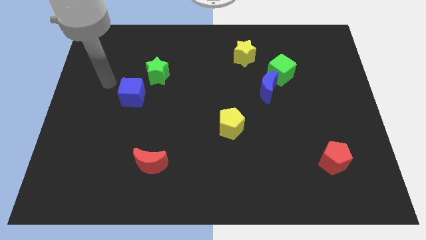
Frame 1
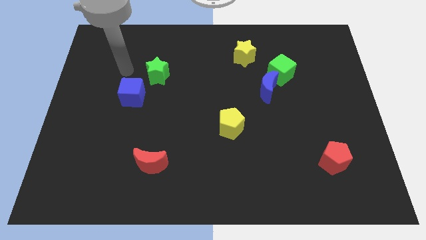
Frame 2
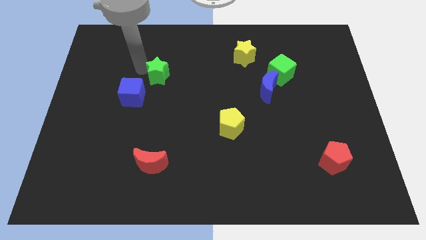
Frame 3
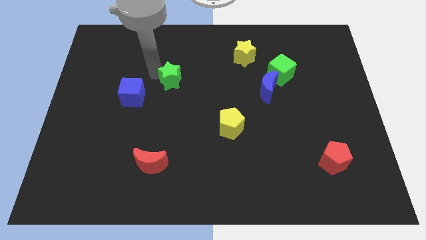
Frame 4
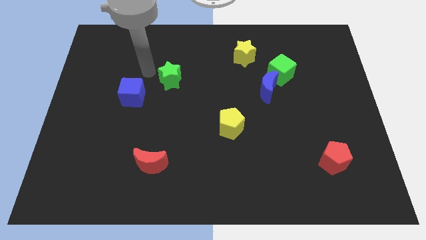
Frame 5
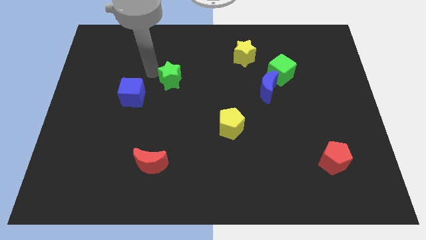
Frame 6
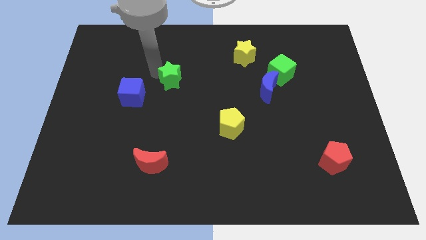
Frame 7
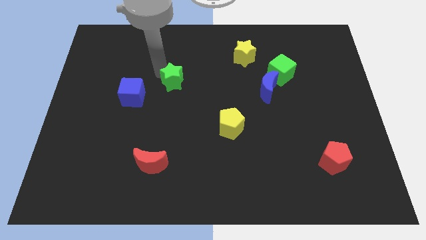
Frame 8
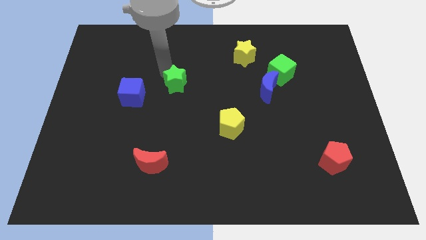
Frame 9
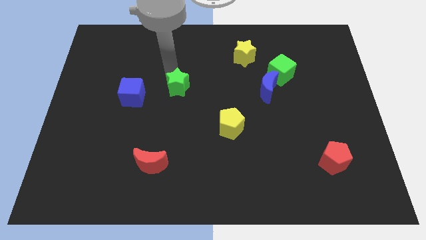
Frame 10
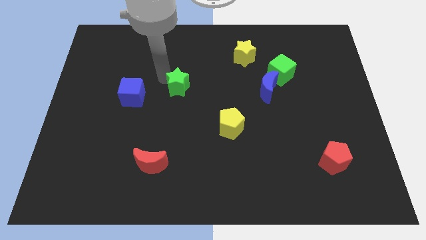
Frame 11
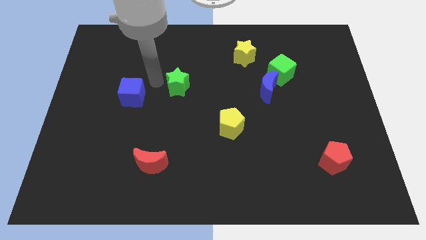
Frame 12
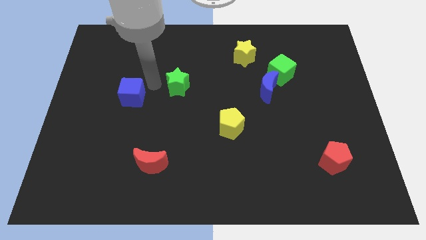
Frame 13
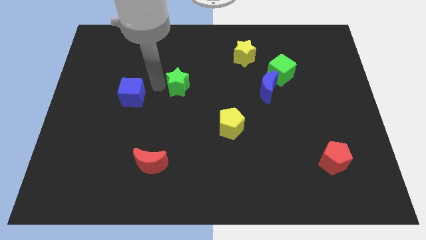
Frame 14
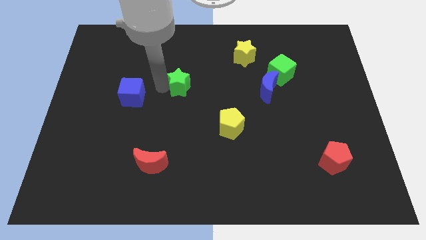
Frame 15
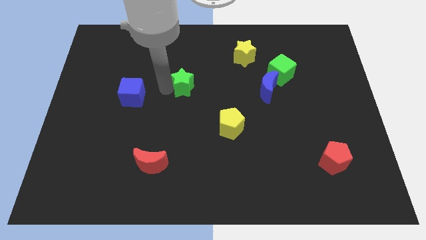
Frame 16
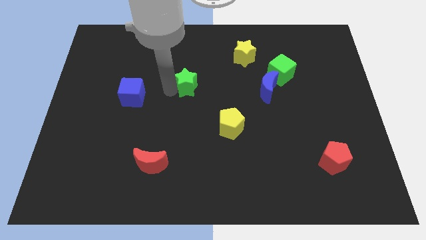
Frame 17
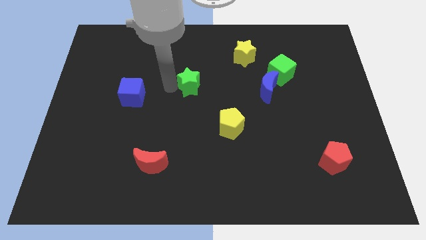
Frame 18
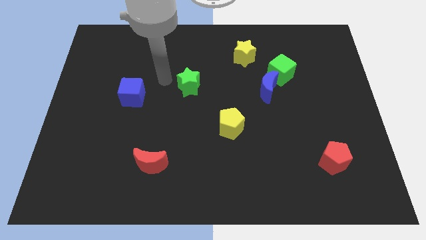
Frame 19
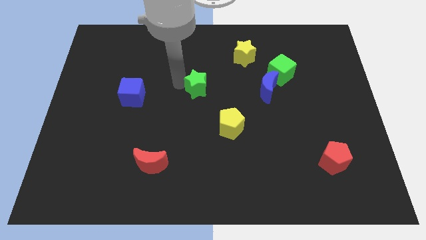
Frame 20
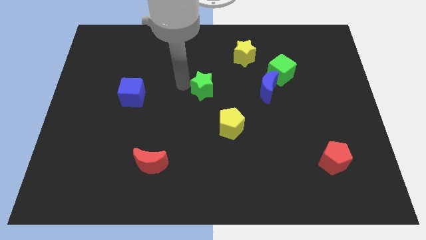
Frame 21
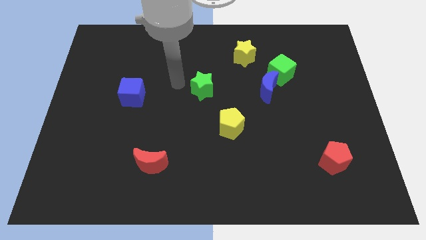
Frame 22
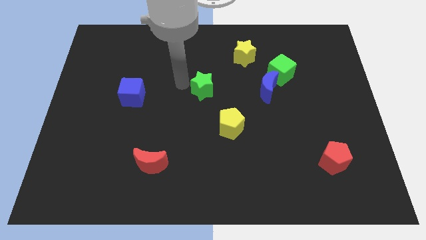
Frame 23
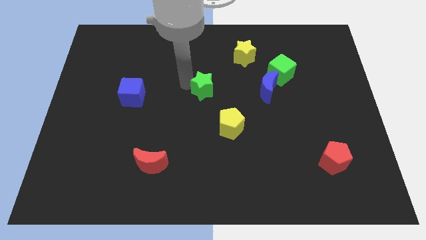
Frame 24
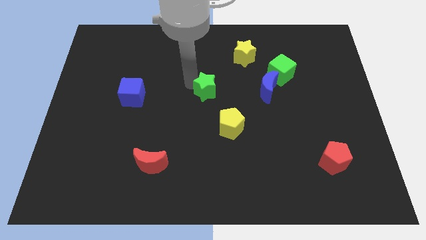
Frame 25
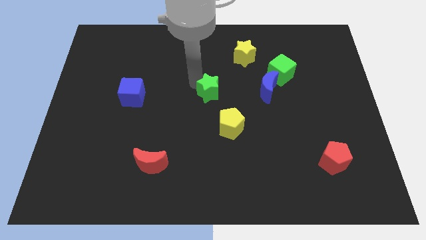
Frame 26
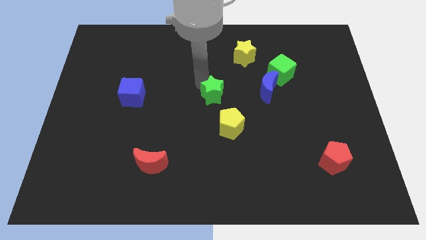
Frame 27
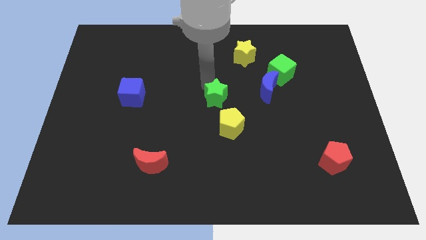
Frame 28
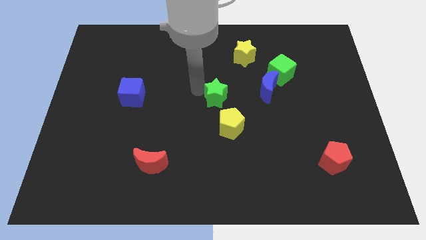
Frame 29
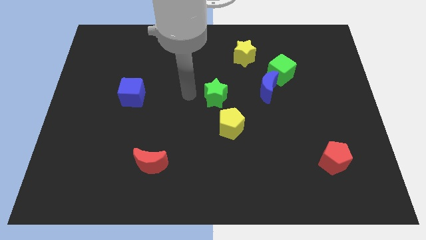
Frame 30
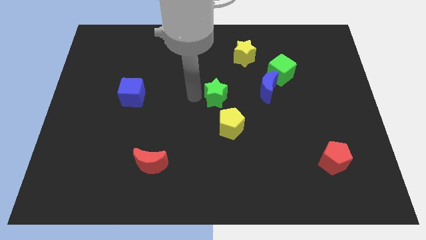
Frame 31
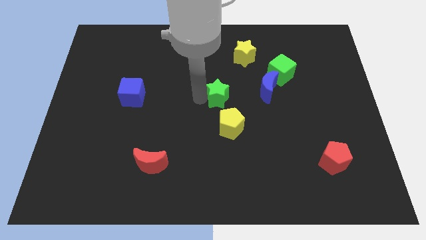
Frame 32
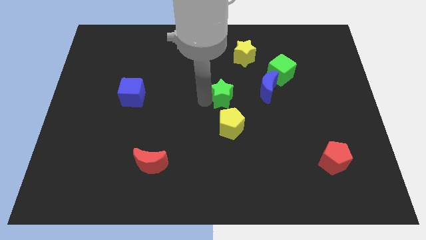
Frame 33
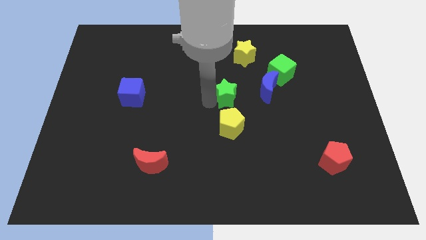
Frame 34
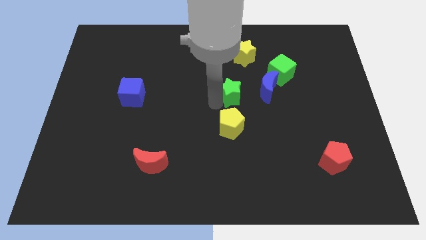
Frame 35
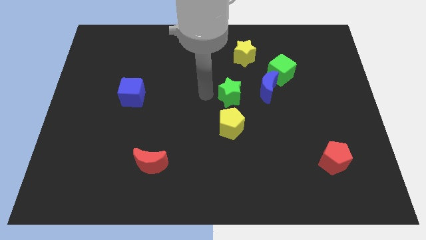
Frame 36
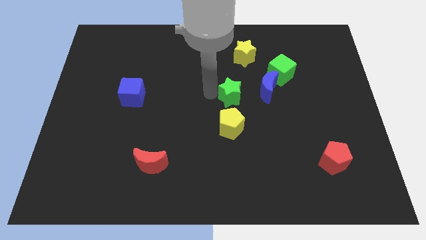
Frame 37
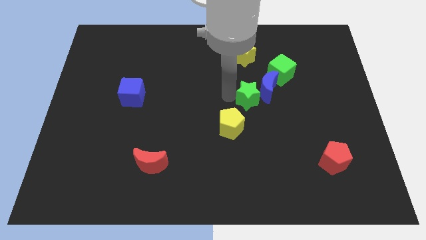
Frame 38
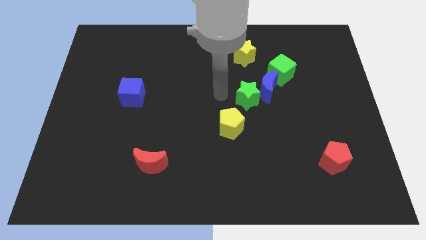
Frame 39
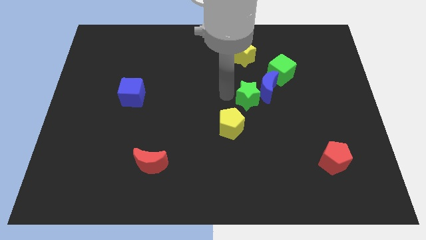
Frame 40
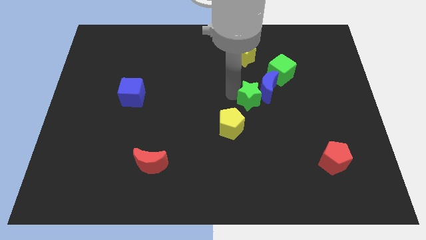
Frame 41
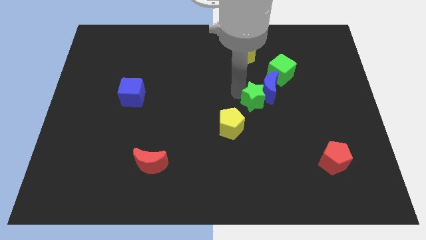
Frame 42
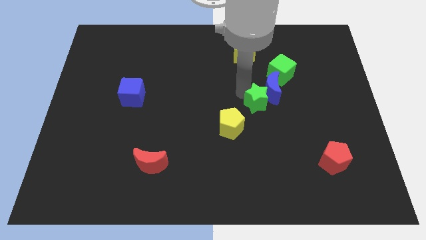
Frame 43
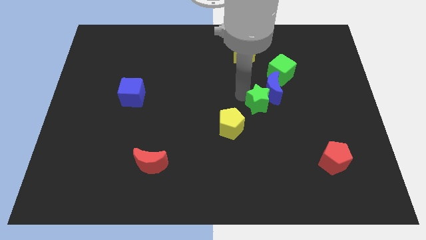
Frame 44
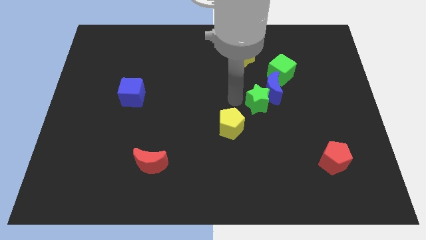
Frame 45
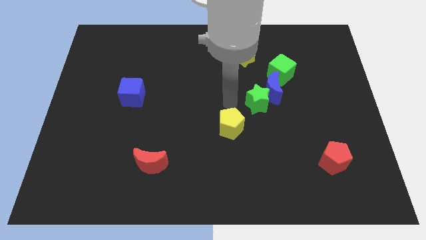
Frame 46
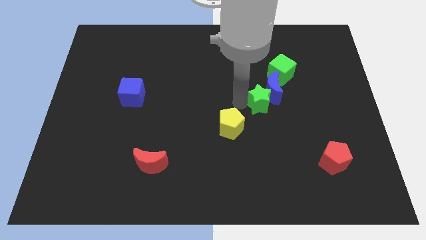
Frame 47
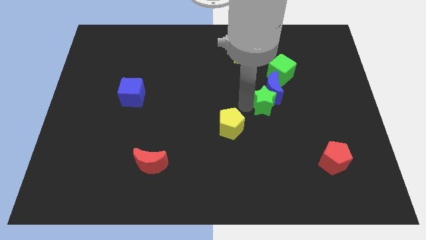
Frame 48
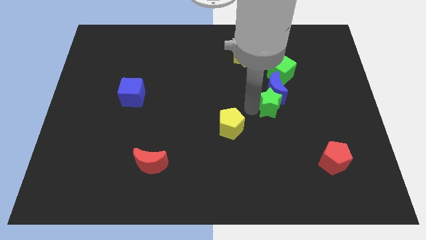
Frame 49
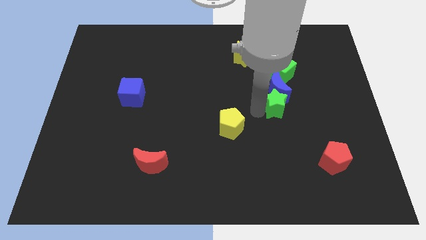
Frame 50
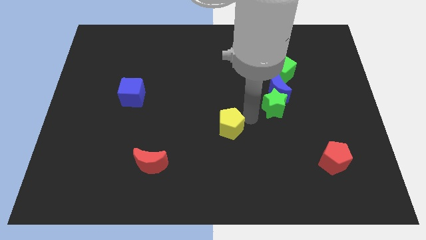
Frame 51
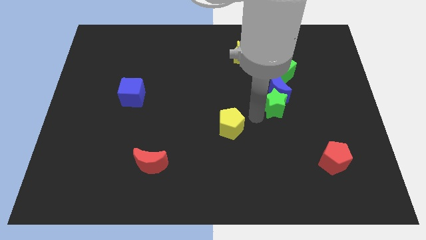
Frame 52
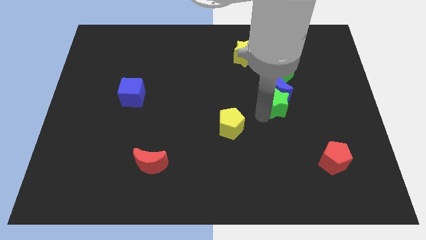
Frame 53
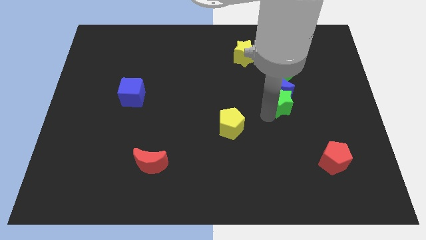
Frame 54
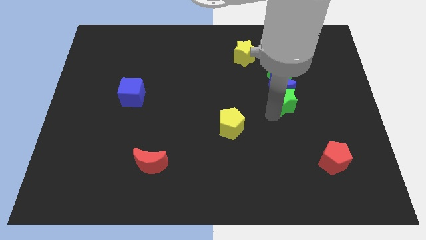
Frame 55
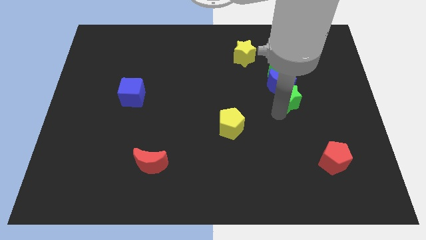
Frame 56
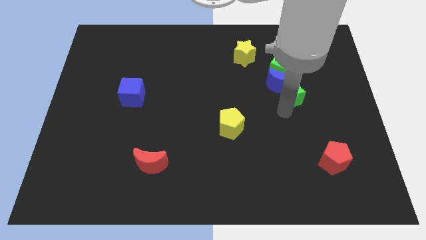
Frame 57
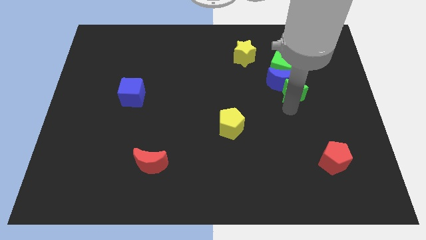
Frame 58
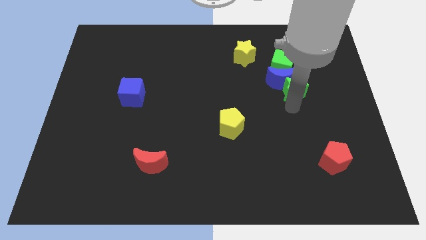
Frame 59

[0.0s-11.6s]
move the green star to the bottom right side of the green cube

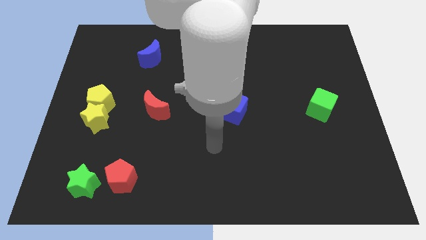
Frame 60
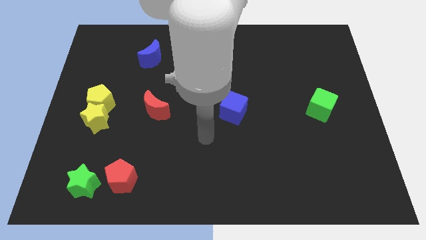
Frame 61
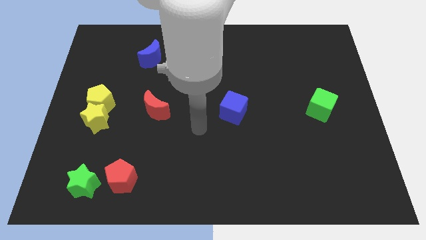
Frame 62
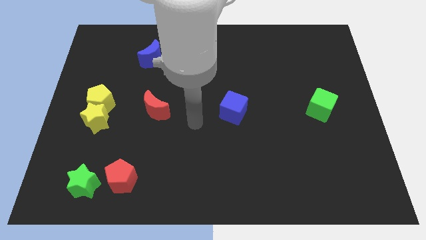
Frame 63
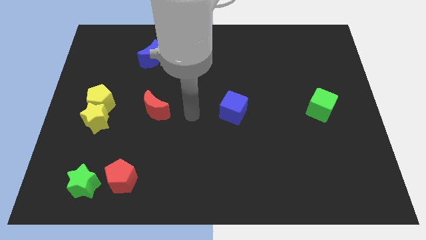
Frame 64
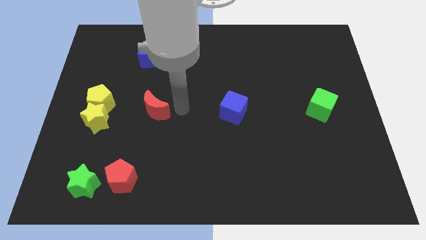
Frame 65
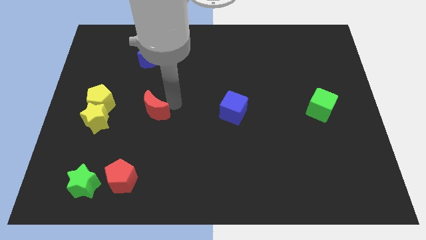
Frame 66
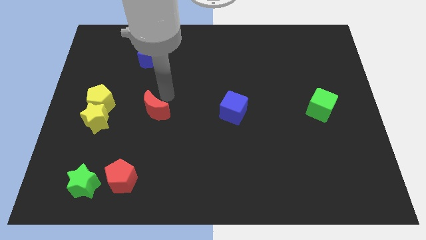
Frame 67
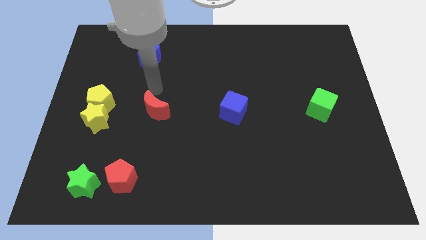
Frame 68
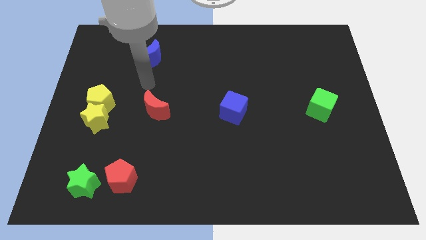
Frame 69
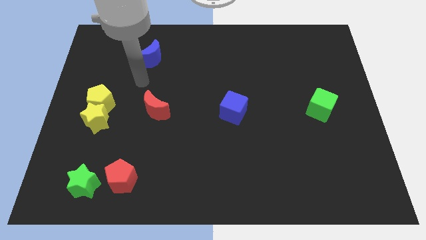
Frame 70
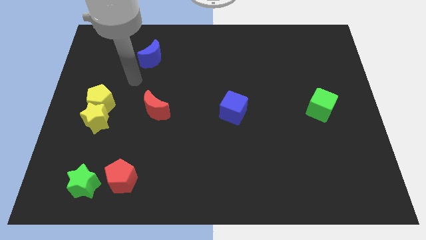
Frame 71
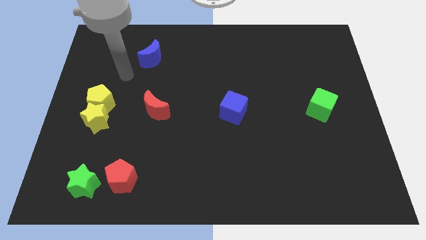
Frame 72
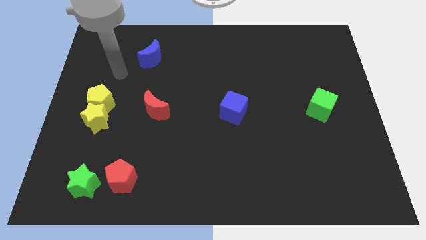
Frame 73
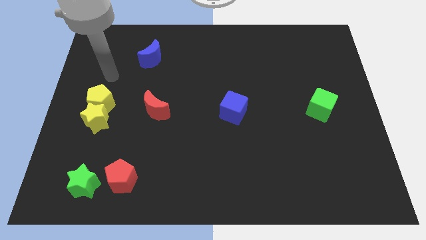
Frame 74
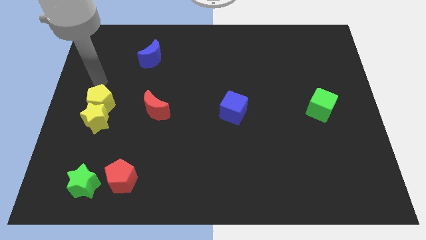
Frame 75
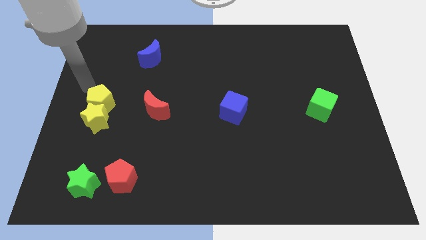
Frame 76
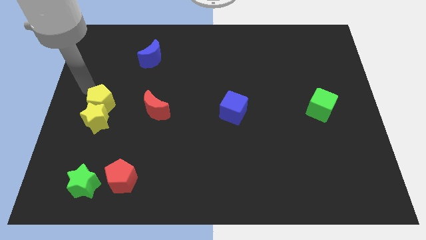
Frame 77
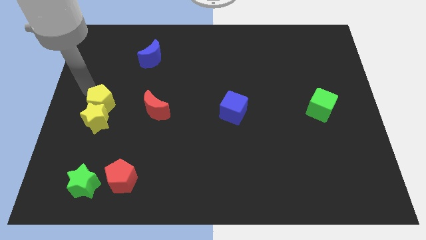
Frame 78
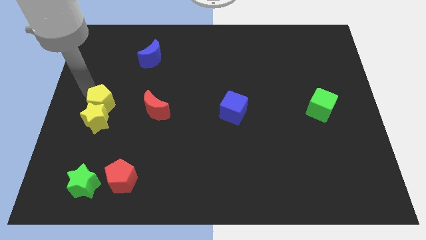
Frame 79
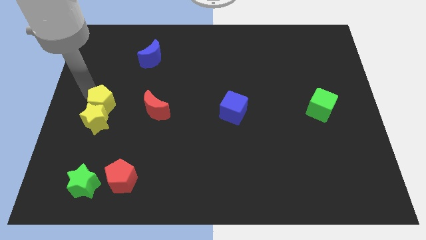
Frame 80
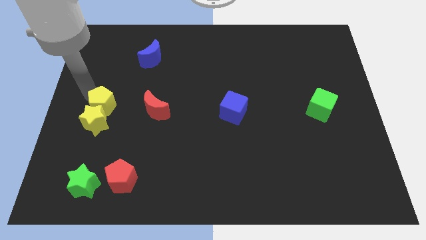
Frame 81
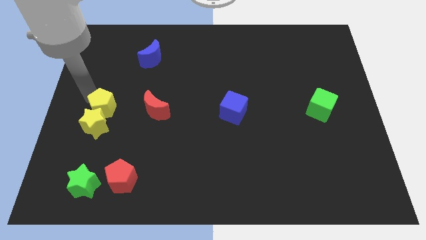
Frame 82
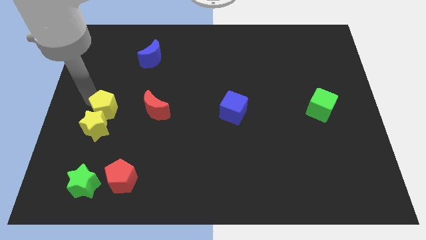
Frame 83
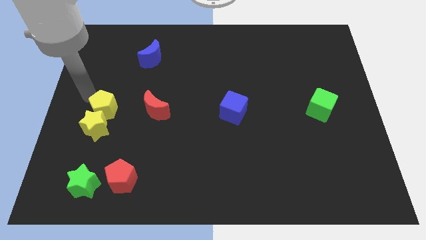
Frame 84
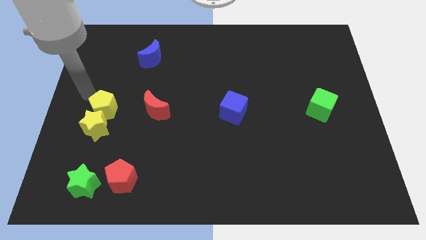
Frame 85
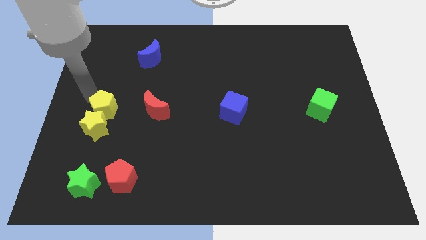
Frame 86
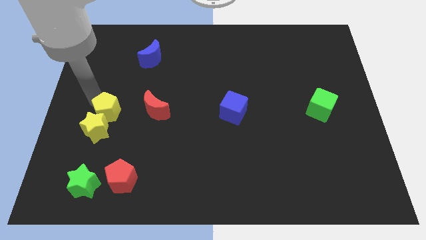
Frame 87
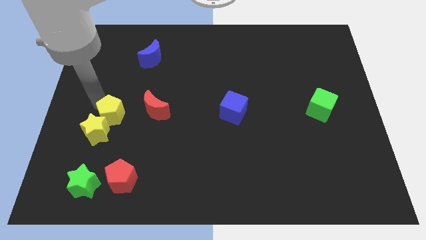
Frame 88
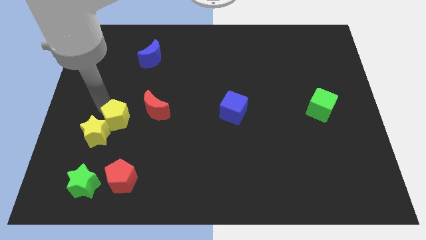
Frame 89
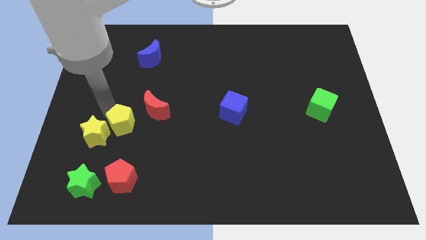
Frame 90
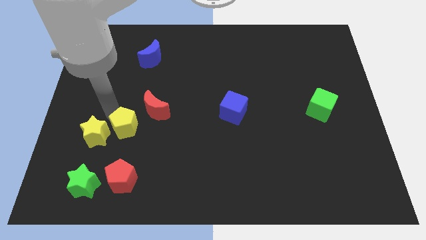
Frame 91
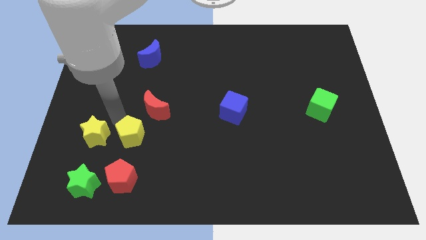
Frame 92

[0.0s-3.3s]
push the yellow pentagon below the red moon
